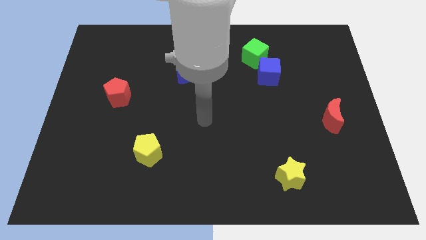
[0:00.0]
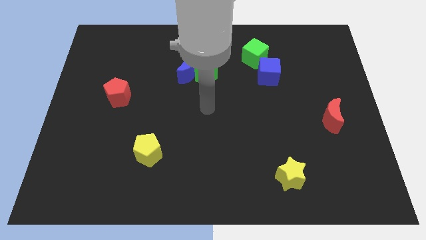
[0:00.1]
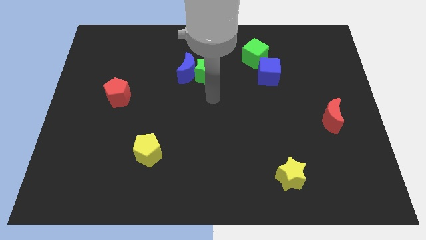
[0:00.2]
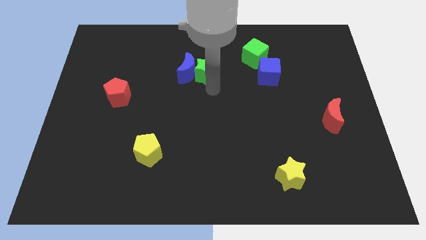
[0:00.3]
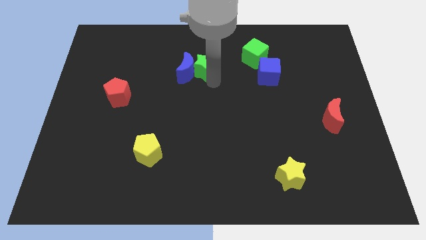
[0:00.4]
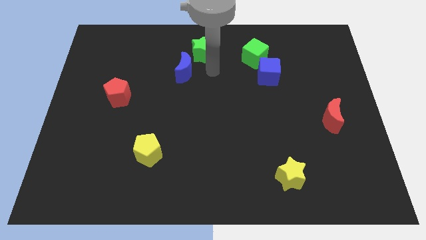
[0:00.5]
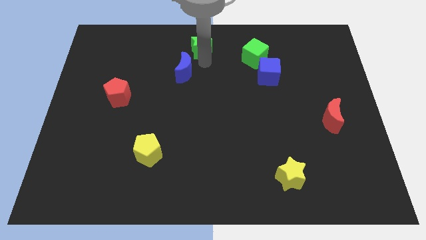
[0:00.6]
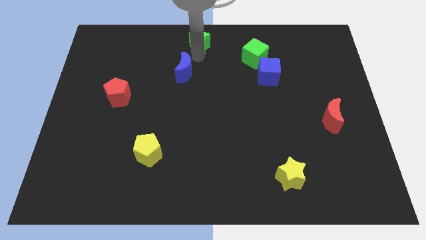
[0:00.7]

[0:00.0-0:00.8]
move the blue moon away from the green star

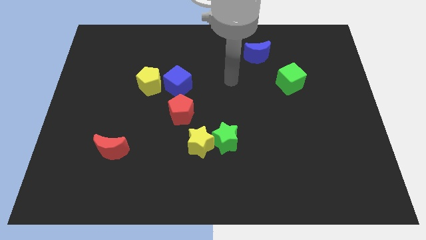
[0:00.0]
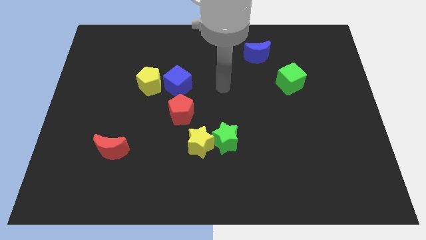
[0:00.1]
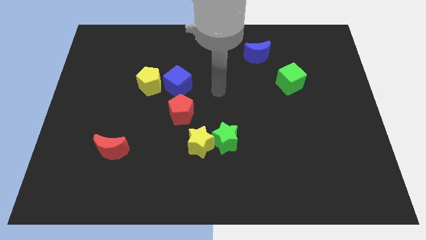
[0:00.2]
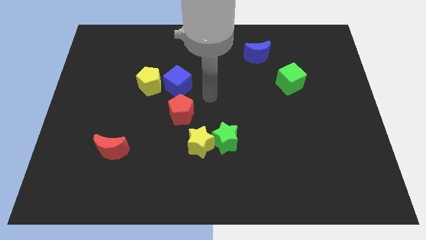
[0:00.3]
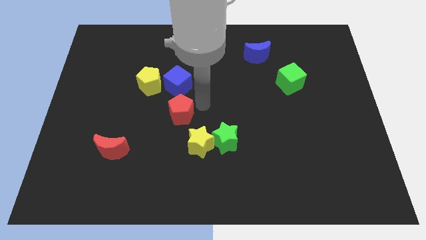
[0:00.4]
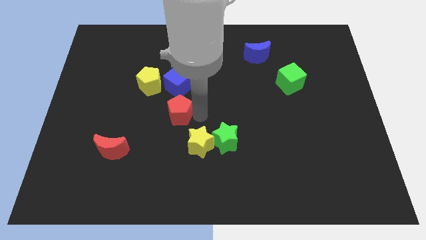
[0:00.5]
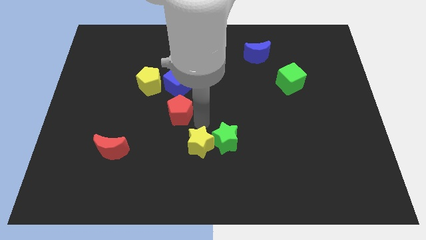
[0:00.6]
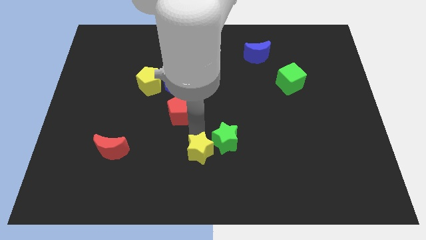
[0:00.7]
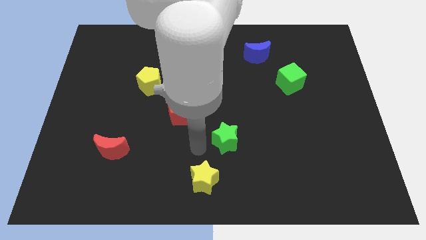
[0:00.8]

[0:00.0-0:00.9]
pull the green star apart from the yellow star

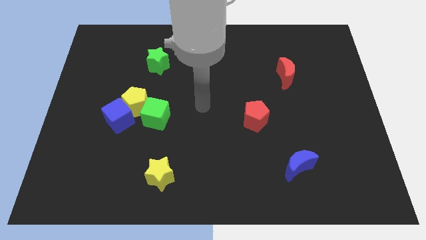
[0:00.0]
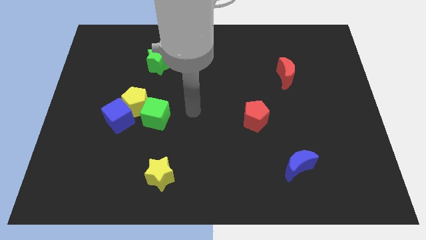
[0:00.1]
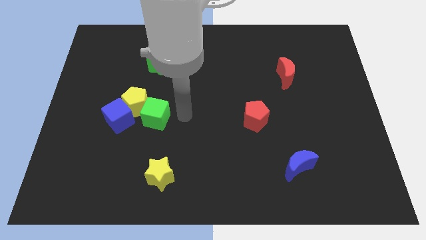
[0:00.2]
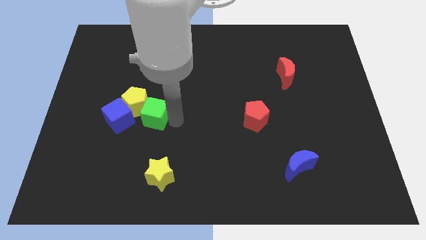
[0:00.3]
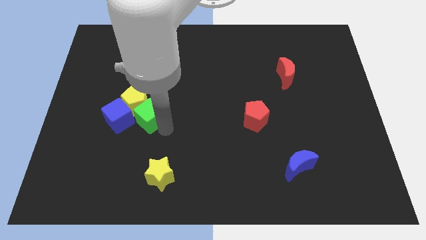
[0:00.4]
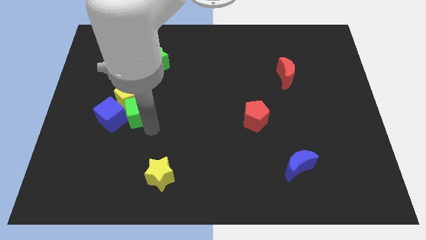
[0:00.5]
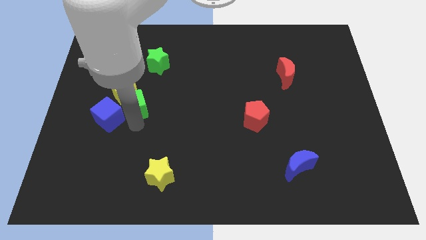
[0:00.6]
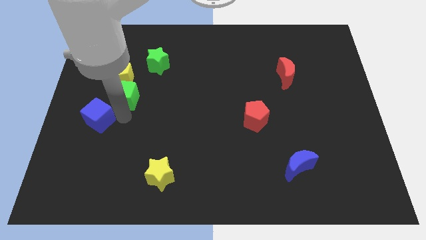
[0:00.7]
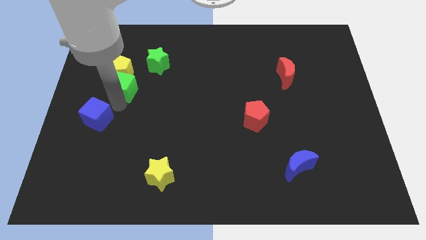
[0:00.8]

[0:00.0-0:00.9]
separate the yellow pentagon from the blue cube and green cube

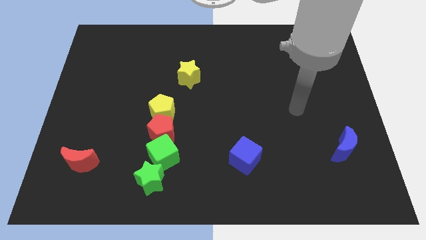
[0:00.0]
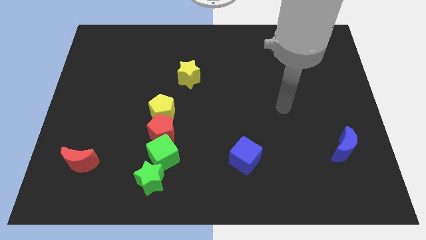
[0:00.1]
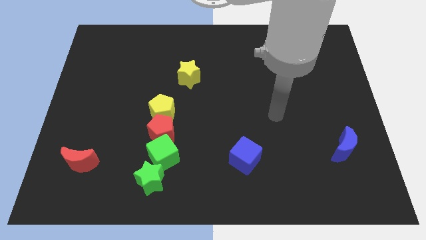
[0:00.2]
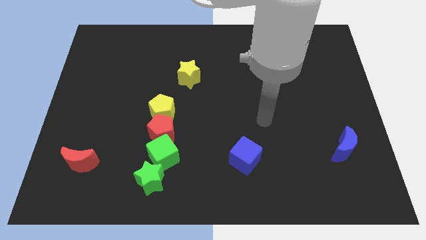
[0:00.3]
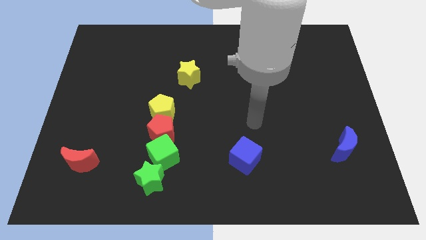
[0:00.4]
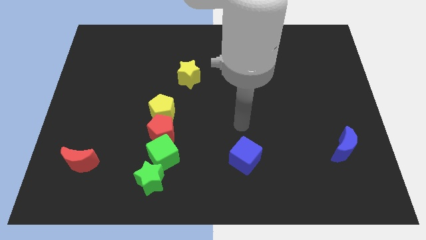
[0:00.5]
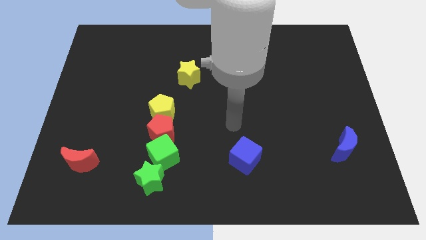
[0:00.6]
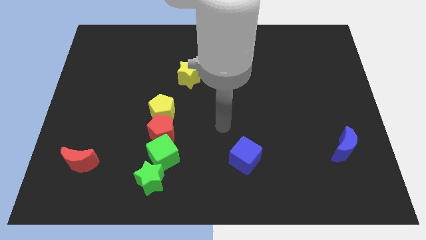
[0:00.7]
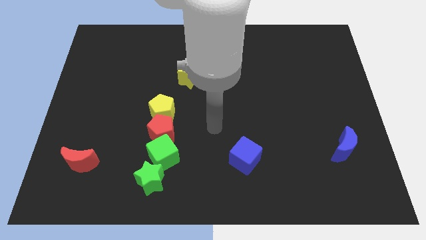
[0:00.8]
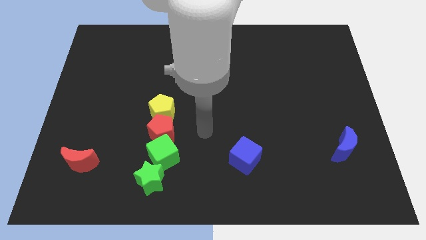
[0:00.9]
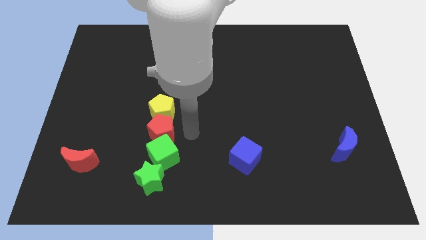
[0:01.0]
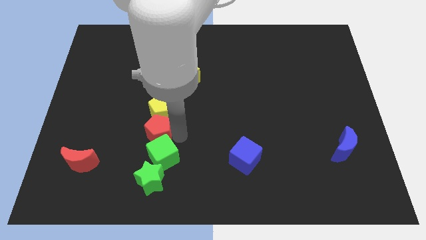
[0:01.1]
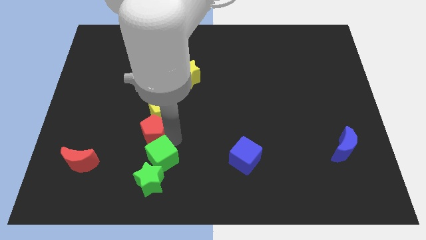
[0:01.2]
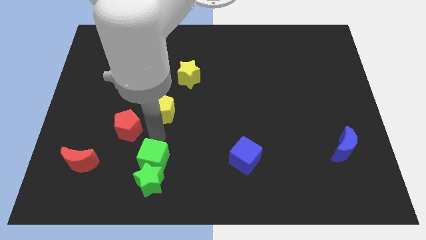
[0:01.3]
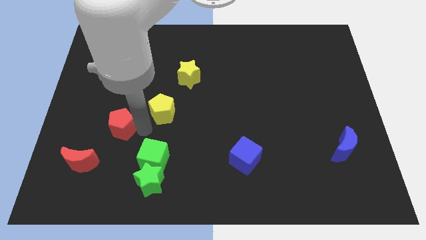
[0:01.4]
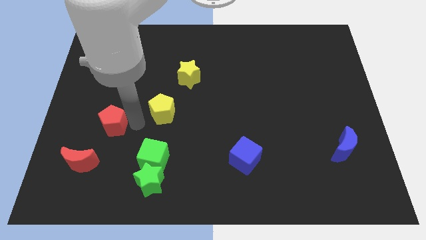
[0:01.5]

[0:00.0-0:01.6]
pull the yellow pentagon apart from the red pentagon

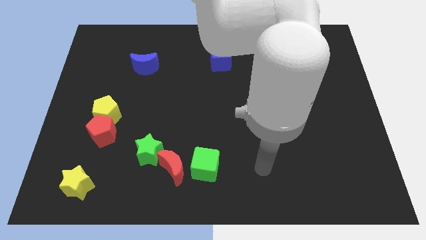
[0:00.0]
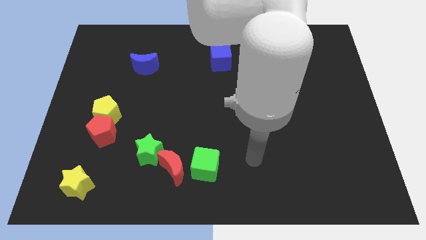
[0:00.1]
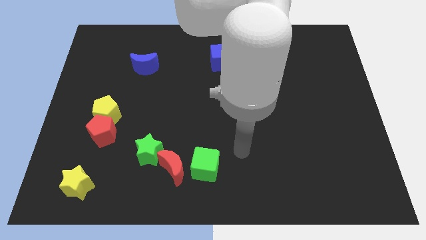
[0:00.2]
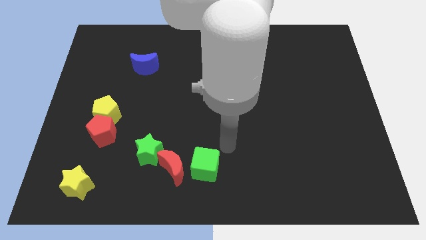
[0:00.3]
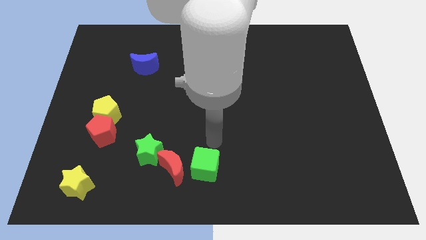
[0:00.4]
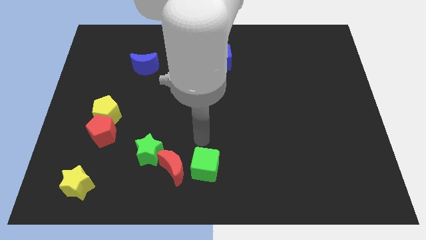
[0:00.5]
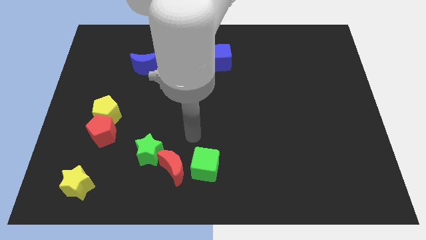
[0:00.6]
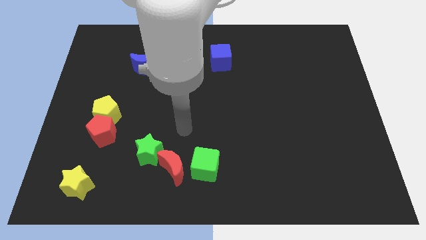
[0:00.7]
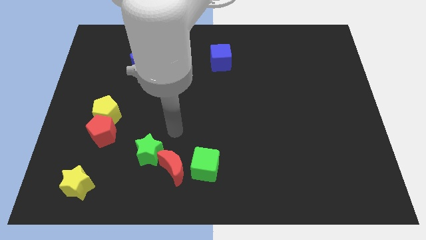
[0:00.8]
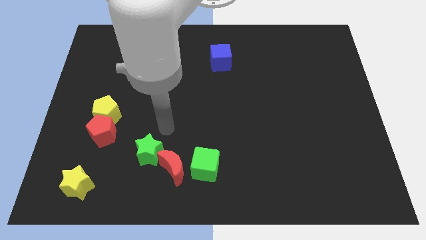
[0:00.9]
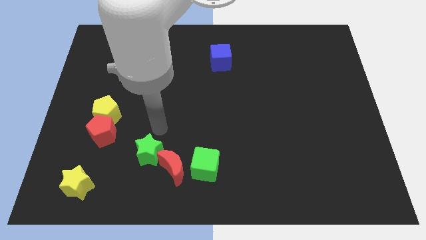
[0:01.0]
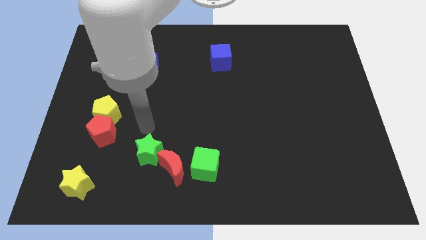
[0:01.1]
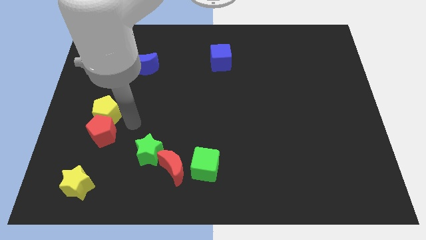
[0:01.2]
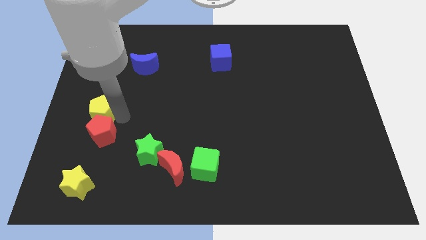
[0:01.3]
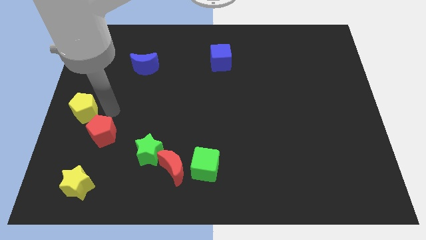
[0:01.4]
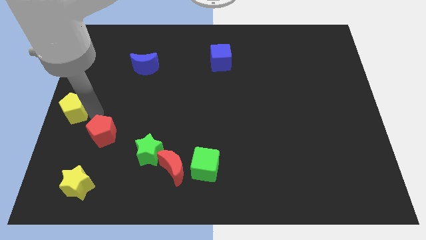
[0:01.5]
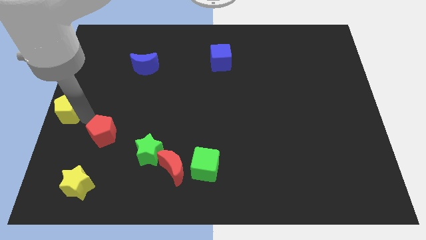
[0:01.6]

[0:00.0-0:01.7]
move the red pentagon away from the yellow pentagon

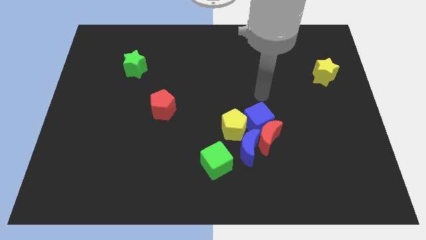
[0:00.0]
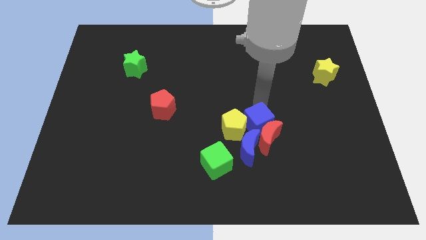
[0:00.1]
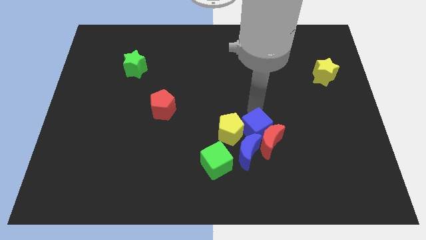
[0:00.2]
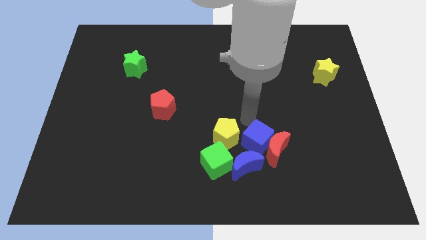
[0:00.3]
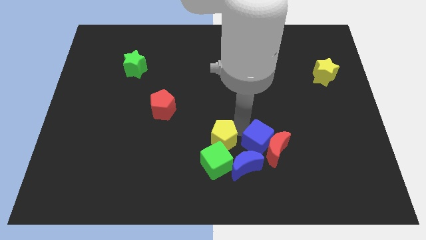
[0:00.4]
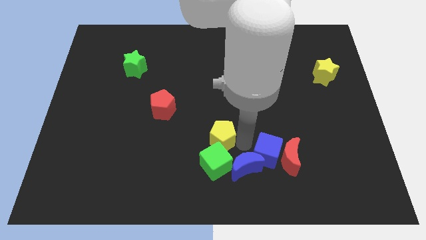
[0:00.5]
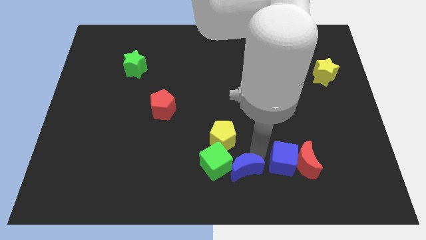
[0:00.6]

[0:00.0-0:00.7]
separate the red moon from the blue cube, blue moon, and yellow pentagon

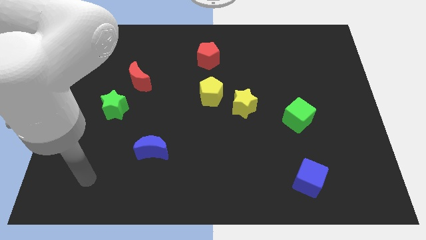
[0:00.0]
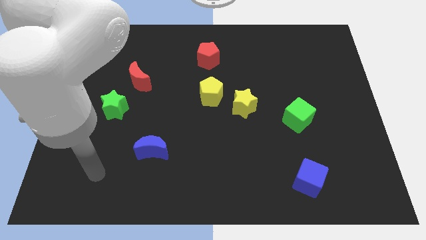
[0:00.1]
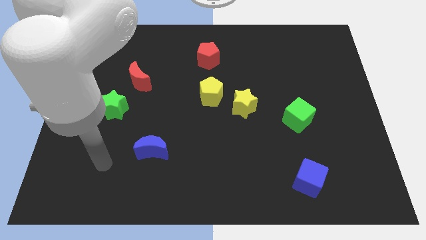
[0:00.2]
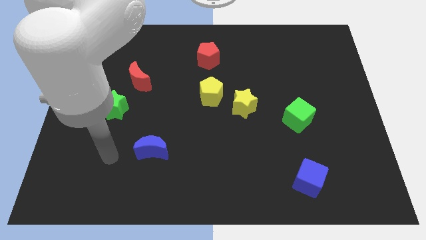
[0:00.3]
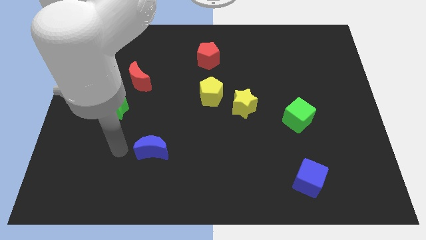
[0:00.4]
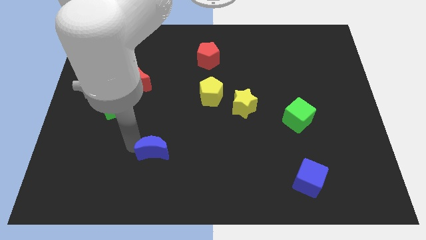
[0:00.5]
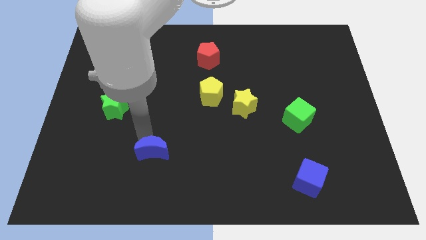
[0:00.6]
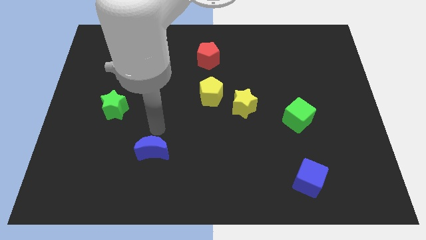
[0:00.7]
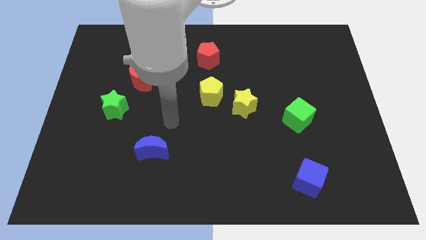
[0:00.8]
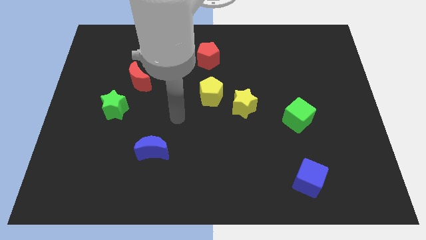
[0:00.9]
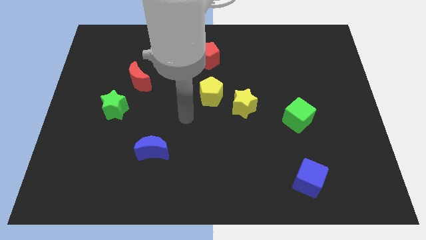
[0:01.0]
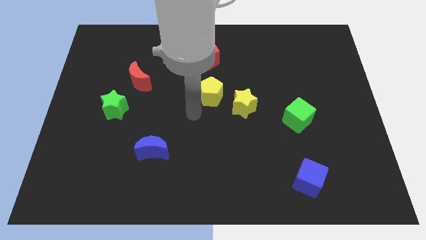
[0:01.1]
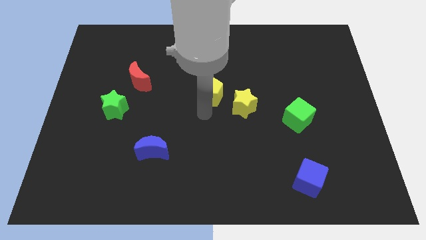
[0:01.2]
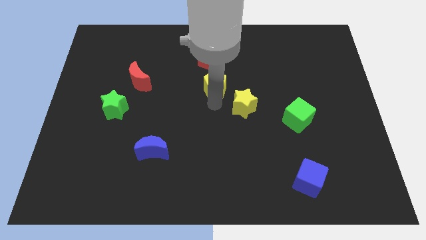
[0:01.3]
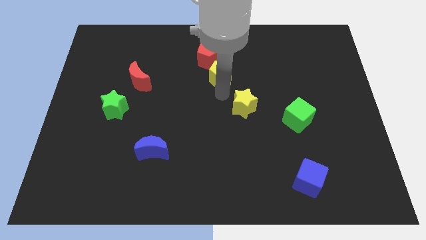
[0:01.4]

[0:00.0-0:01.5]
pull the yellow star apart from the yellow pentagon

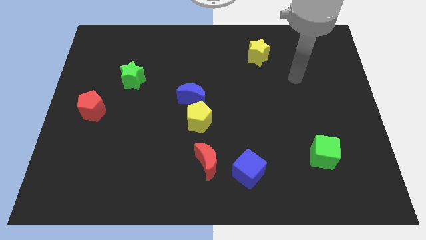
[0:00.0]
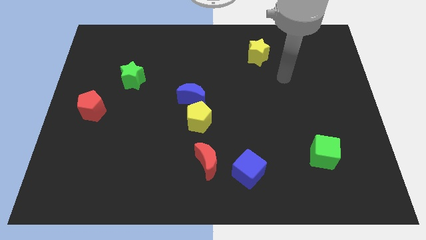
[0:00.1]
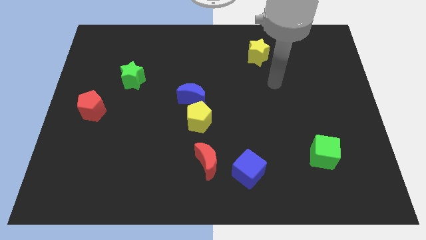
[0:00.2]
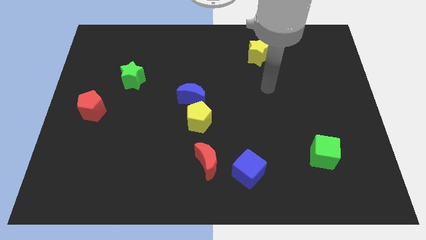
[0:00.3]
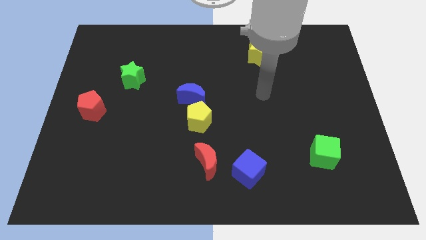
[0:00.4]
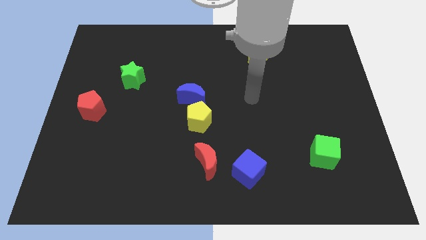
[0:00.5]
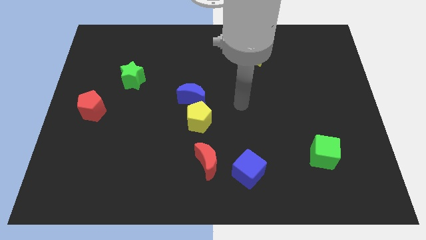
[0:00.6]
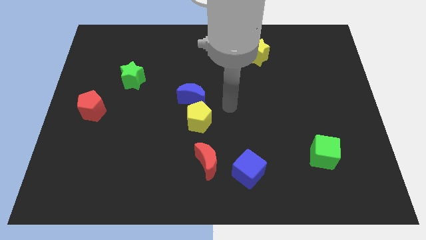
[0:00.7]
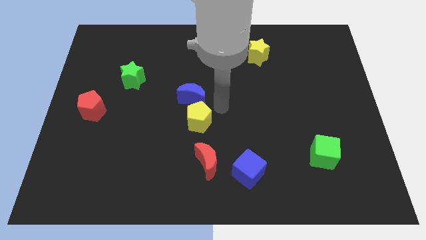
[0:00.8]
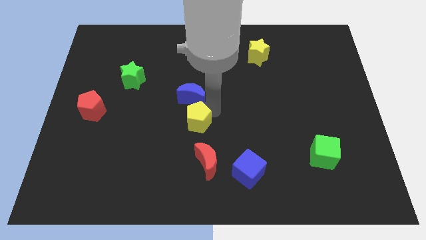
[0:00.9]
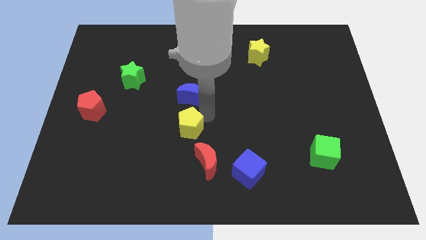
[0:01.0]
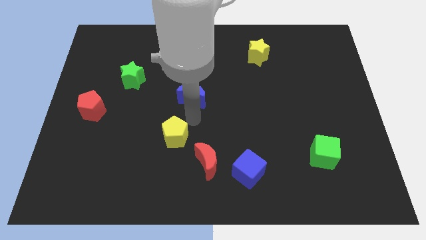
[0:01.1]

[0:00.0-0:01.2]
pull the blue moon apart from the yellow pentagon
